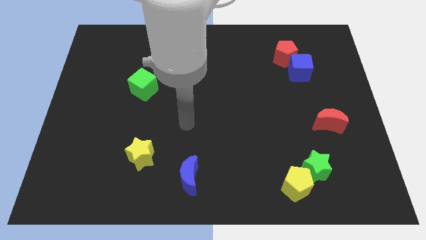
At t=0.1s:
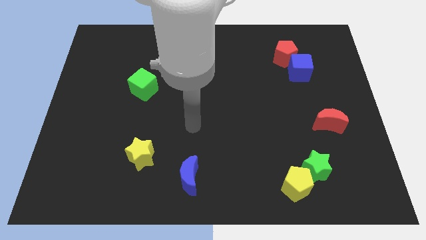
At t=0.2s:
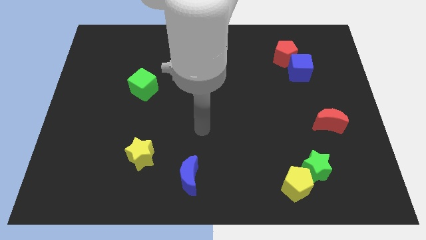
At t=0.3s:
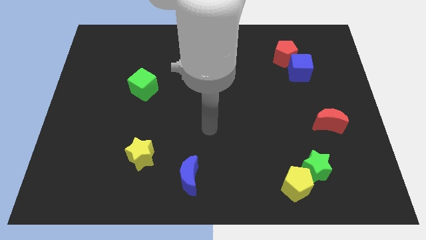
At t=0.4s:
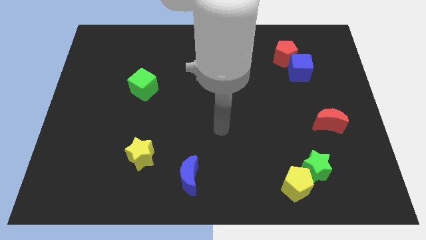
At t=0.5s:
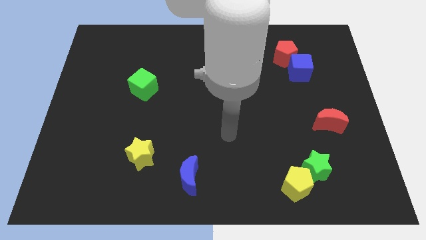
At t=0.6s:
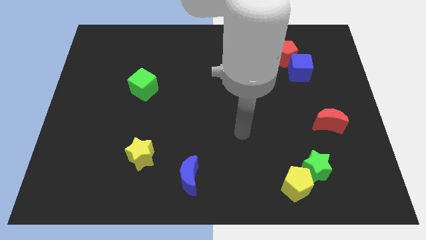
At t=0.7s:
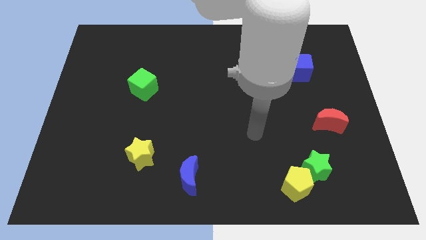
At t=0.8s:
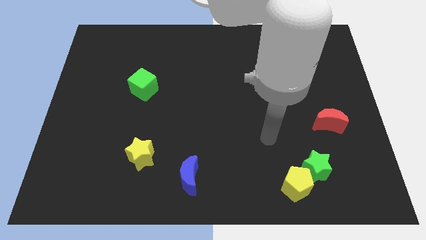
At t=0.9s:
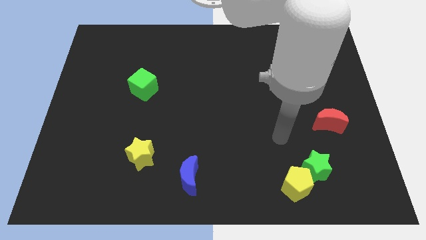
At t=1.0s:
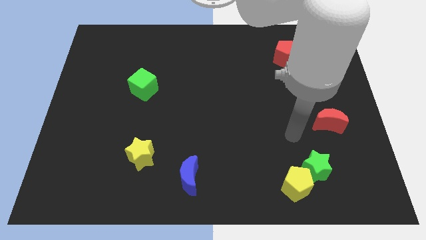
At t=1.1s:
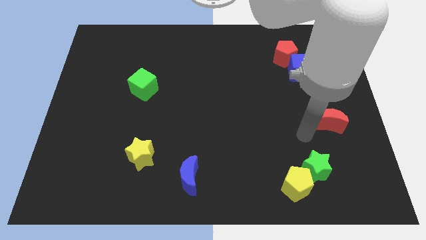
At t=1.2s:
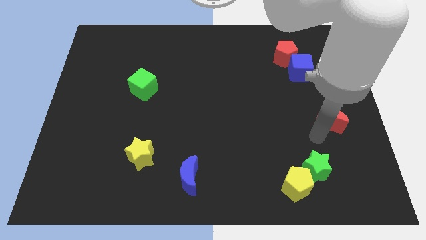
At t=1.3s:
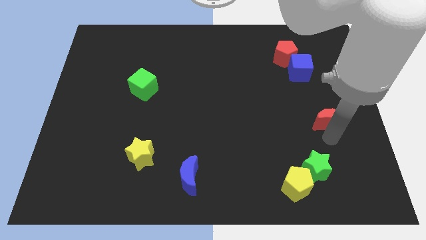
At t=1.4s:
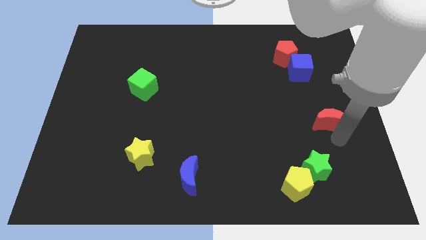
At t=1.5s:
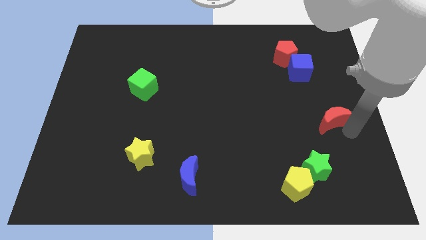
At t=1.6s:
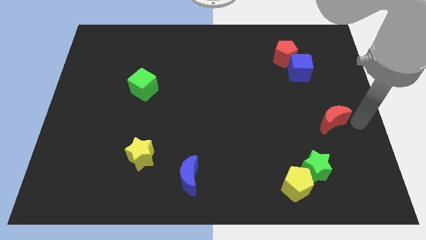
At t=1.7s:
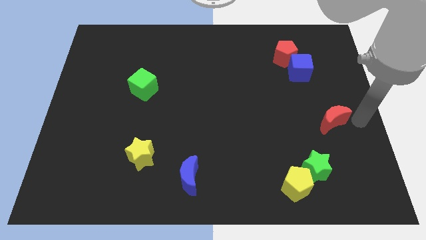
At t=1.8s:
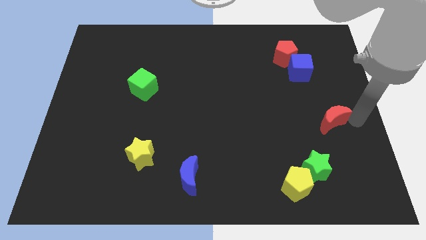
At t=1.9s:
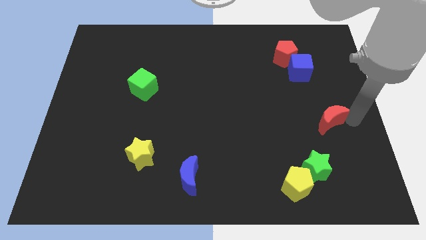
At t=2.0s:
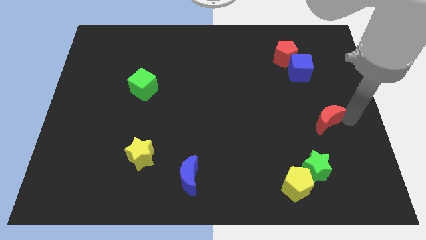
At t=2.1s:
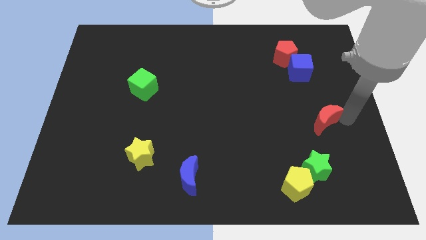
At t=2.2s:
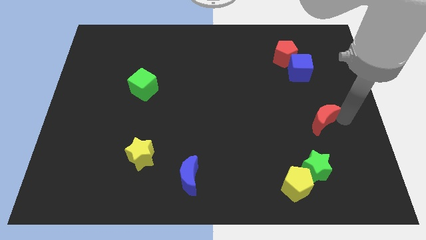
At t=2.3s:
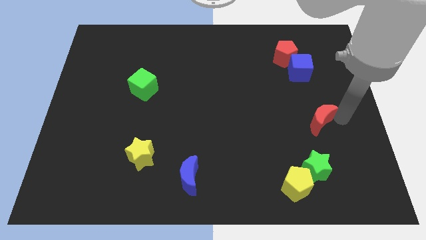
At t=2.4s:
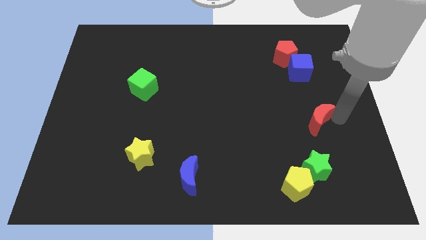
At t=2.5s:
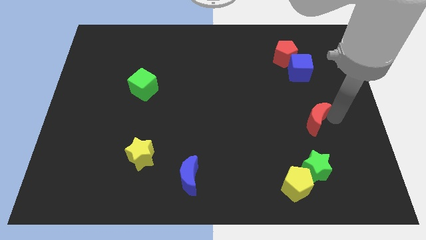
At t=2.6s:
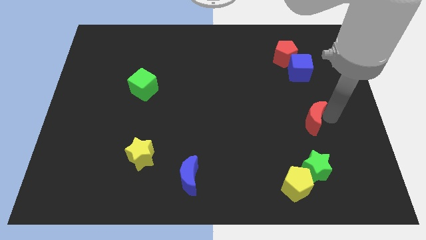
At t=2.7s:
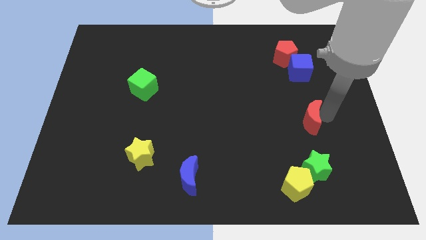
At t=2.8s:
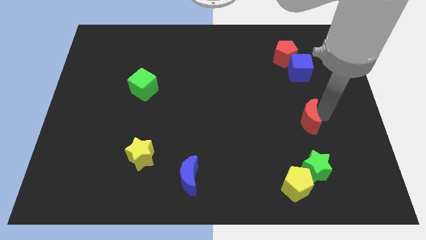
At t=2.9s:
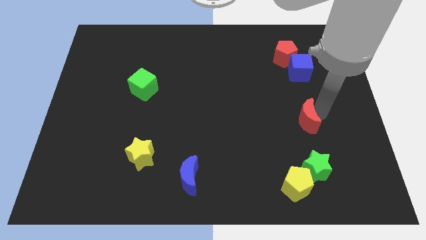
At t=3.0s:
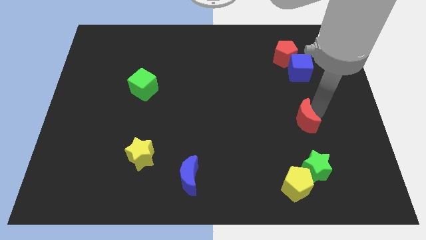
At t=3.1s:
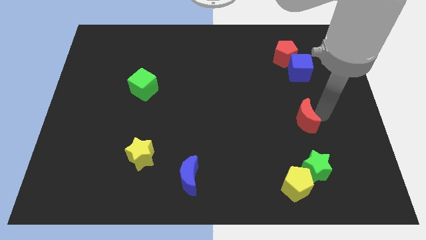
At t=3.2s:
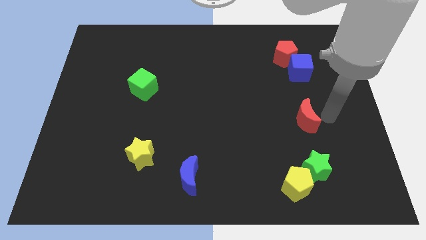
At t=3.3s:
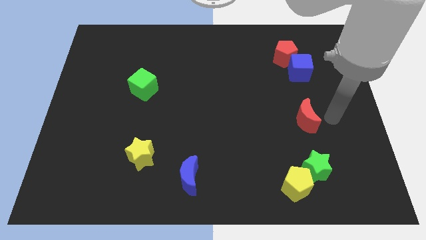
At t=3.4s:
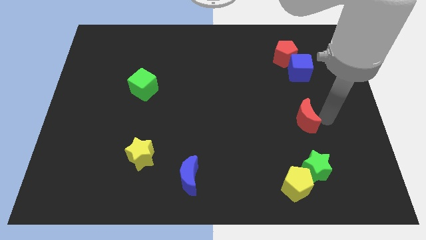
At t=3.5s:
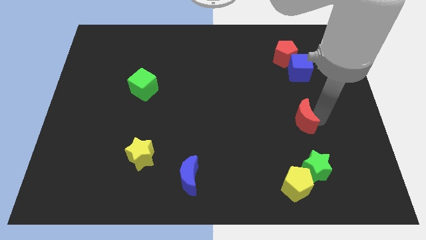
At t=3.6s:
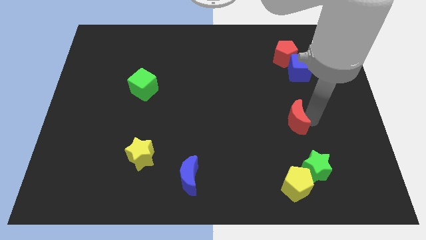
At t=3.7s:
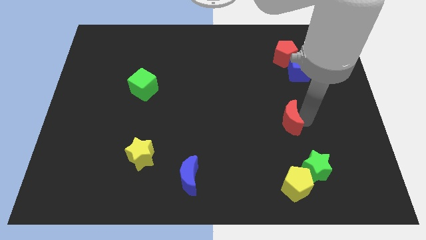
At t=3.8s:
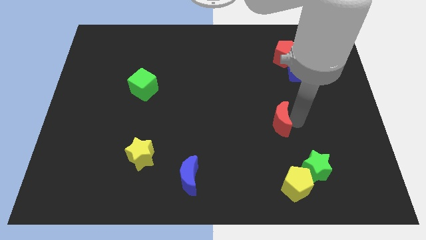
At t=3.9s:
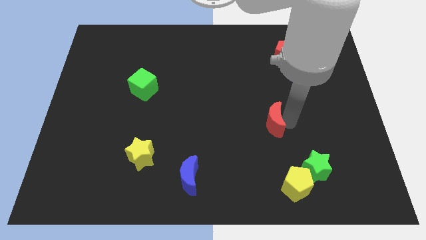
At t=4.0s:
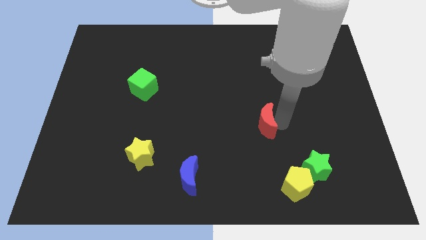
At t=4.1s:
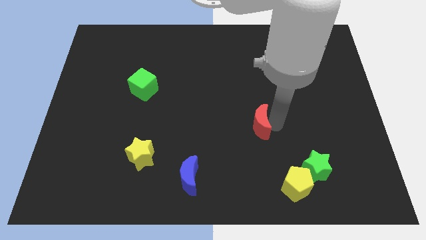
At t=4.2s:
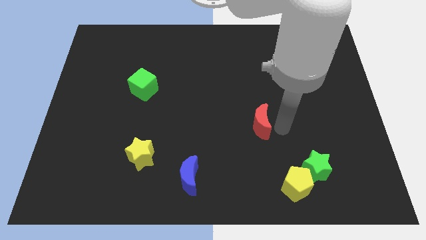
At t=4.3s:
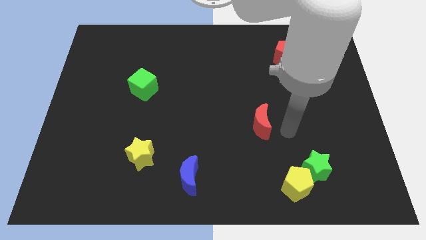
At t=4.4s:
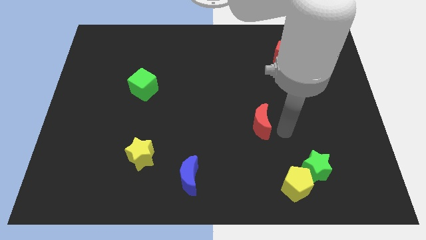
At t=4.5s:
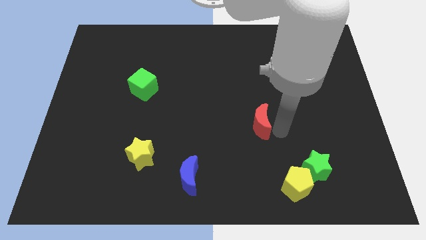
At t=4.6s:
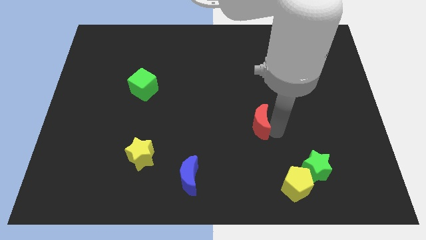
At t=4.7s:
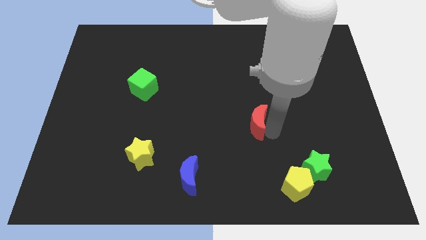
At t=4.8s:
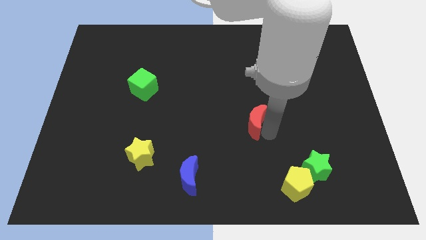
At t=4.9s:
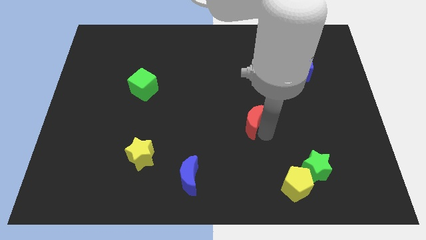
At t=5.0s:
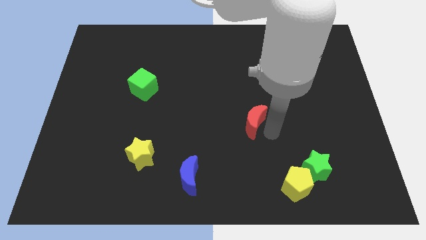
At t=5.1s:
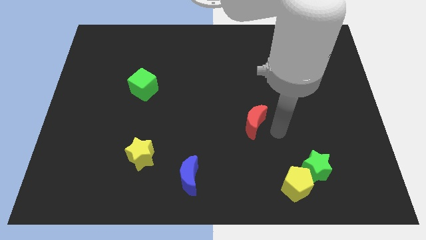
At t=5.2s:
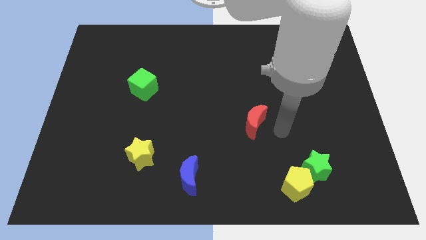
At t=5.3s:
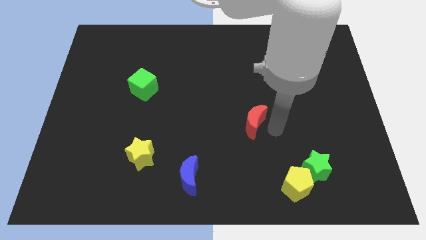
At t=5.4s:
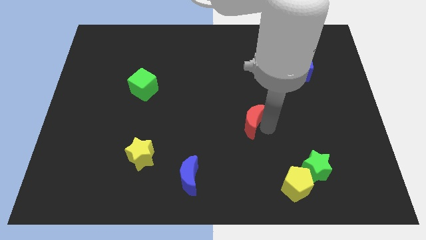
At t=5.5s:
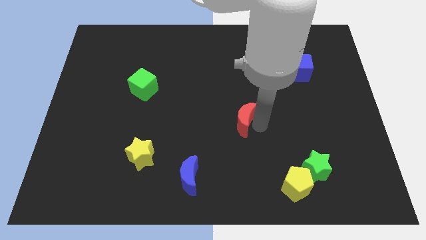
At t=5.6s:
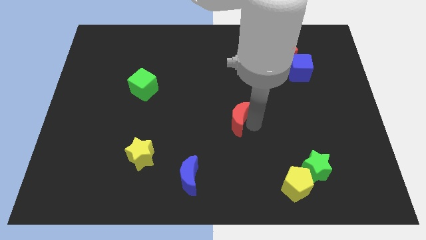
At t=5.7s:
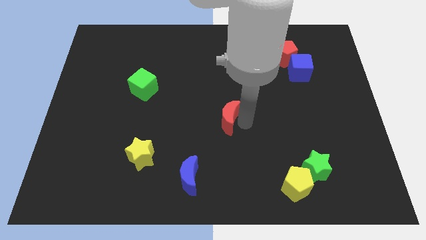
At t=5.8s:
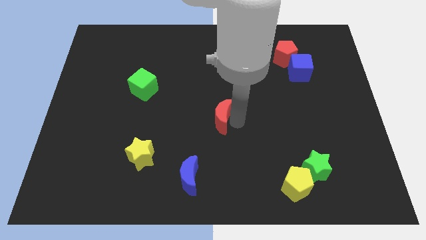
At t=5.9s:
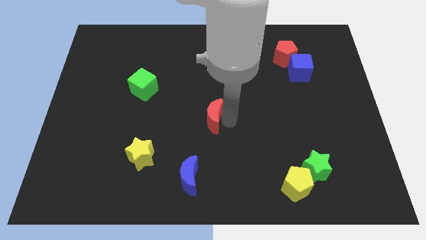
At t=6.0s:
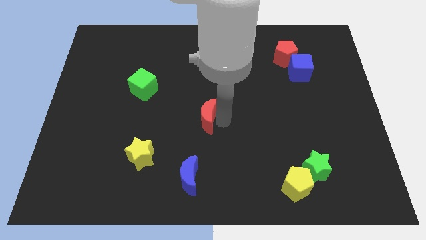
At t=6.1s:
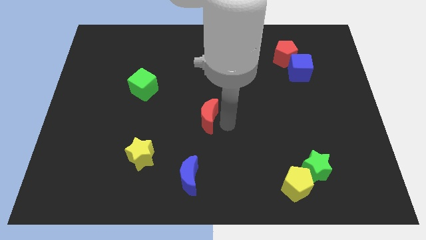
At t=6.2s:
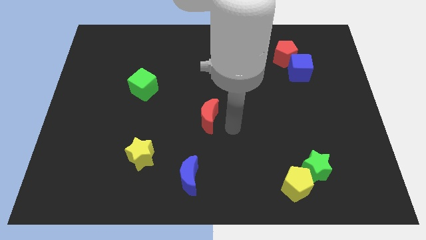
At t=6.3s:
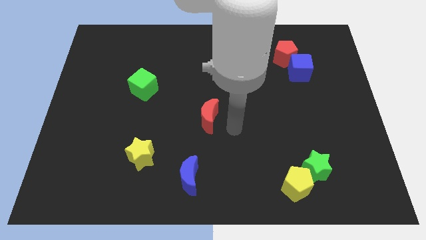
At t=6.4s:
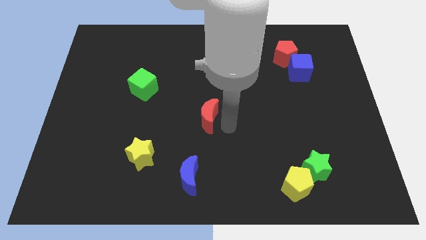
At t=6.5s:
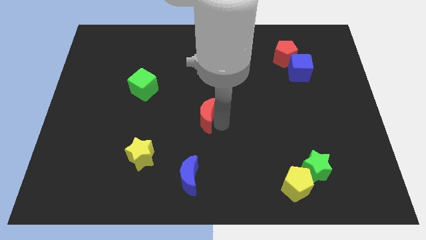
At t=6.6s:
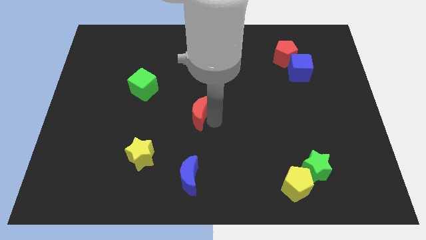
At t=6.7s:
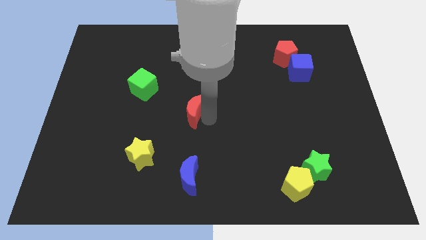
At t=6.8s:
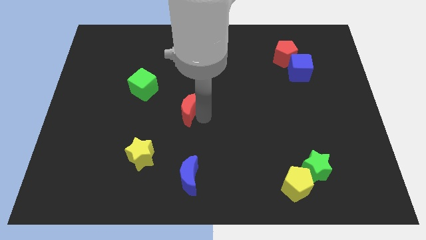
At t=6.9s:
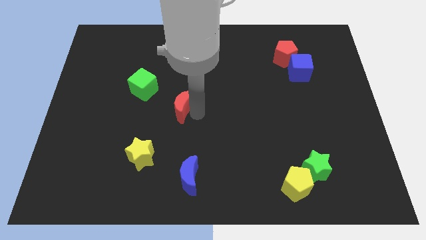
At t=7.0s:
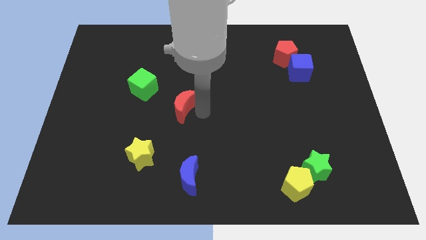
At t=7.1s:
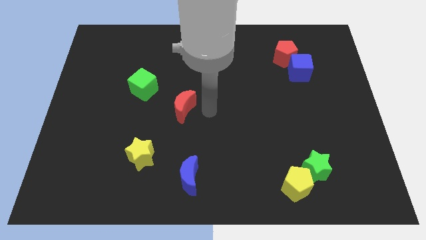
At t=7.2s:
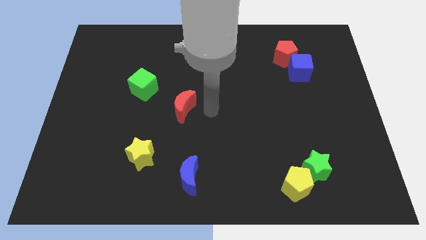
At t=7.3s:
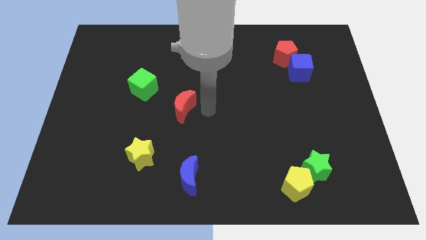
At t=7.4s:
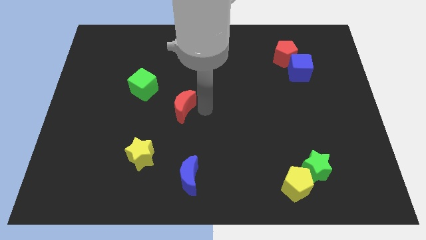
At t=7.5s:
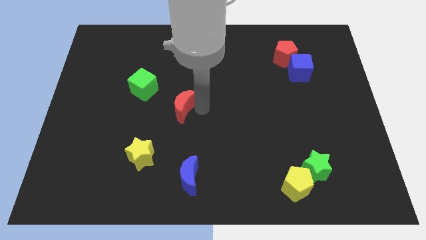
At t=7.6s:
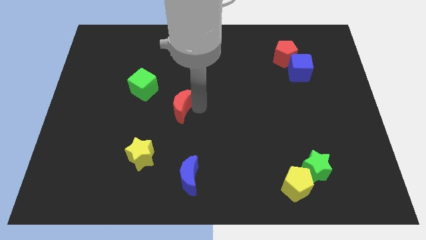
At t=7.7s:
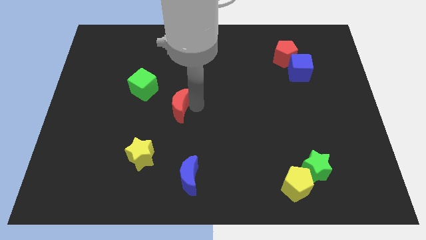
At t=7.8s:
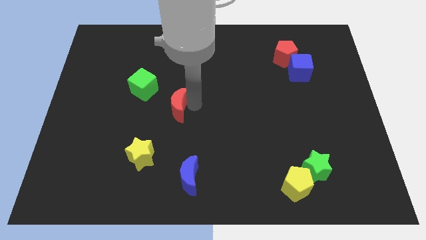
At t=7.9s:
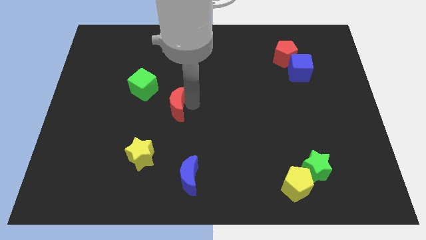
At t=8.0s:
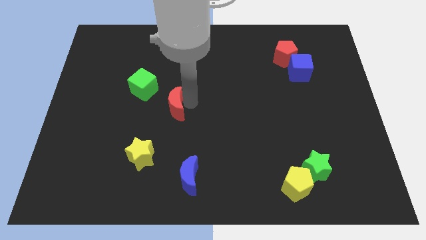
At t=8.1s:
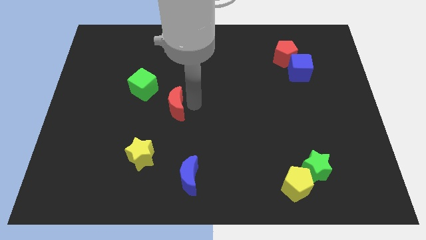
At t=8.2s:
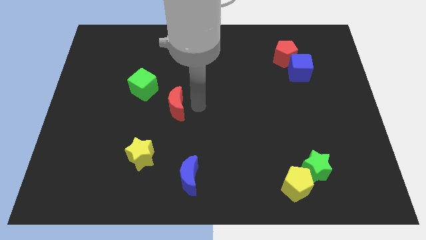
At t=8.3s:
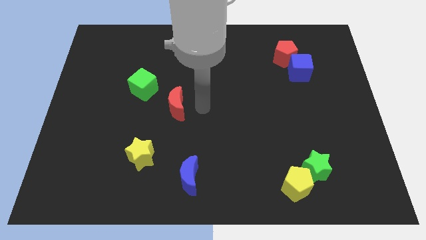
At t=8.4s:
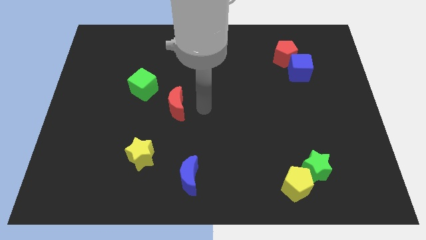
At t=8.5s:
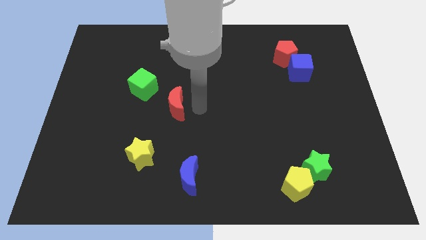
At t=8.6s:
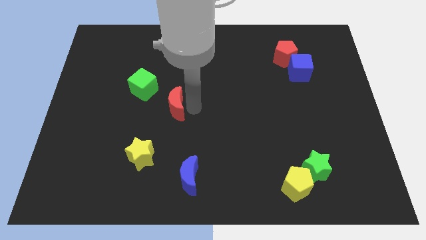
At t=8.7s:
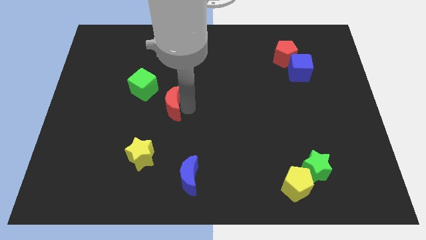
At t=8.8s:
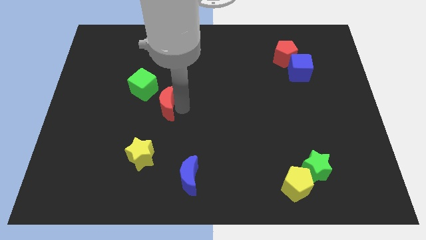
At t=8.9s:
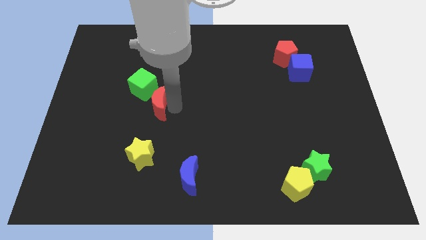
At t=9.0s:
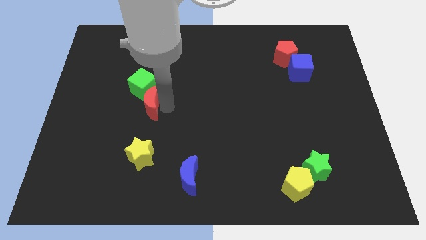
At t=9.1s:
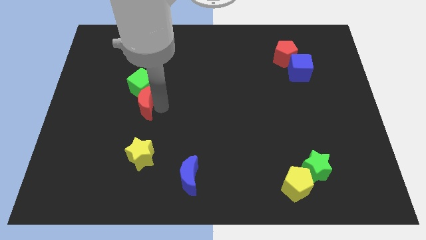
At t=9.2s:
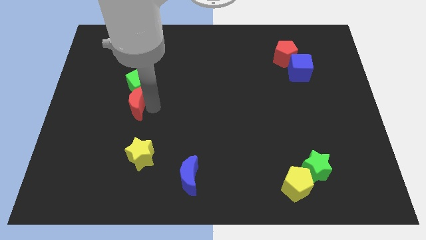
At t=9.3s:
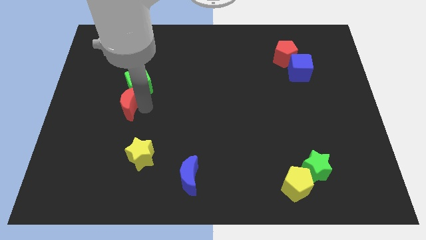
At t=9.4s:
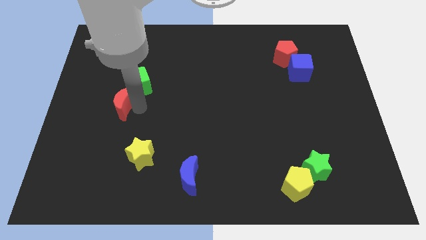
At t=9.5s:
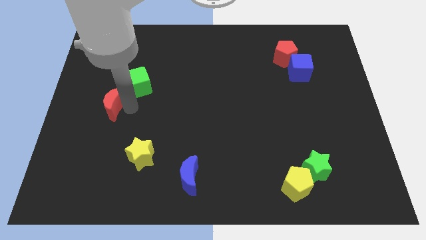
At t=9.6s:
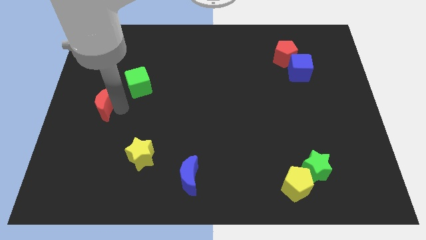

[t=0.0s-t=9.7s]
push the red moon to the center left
